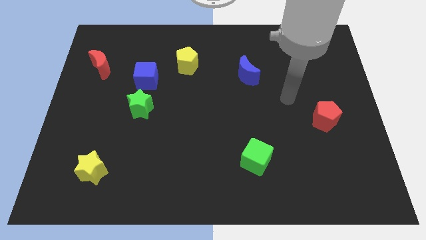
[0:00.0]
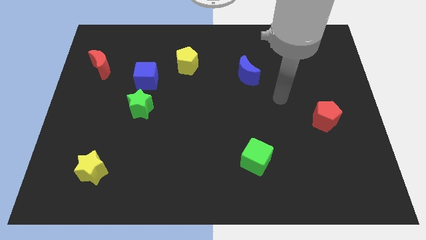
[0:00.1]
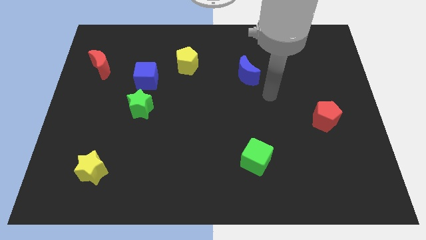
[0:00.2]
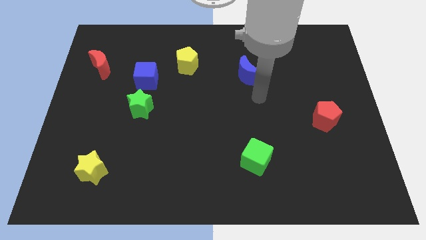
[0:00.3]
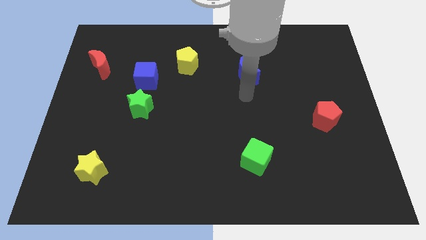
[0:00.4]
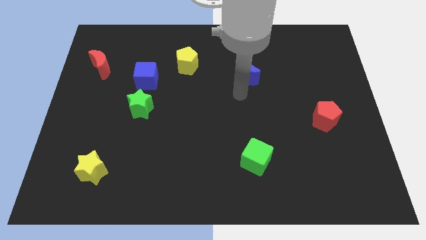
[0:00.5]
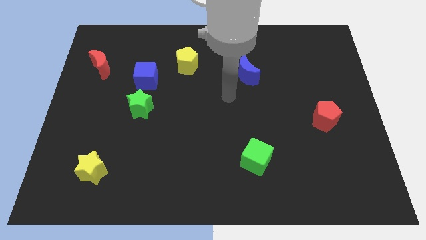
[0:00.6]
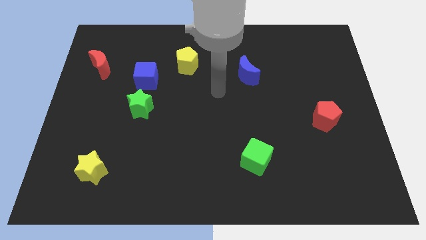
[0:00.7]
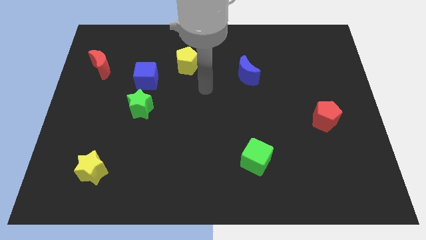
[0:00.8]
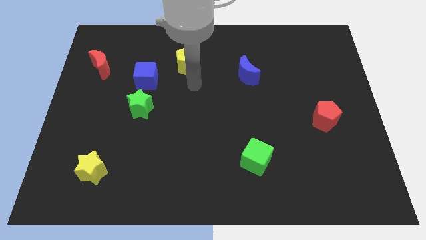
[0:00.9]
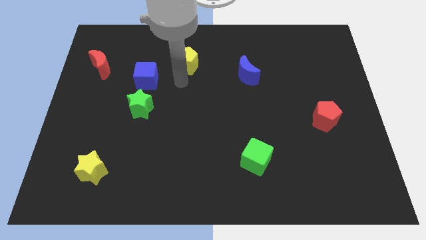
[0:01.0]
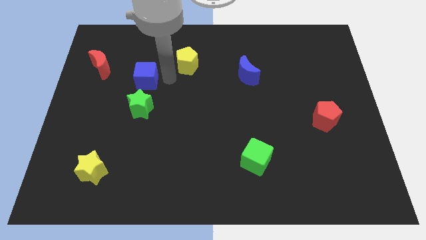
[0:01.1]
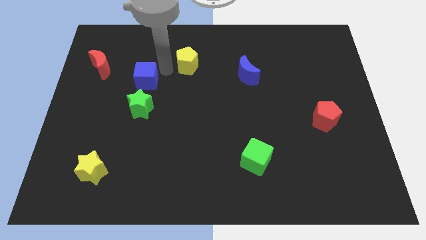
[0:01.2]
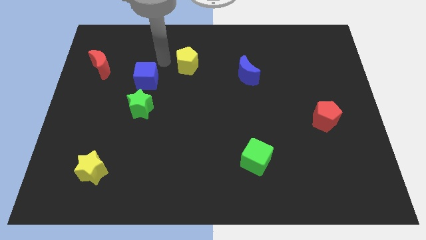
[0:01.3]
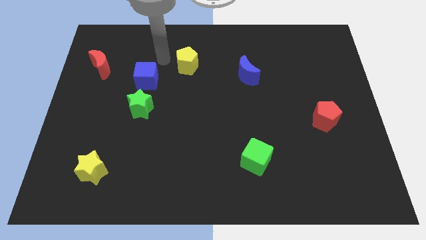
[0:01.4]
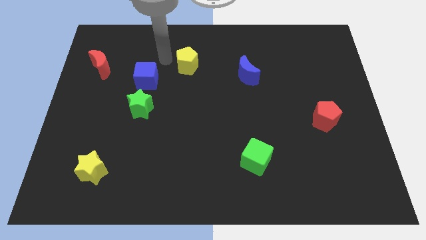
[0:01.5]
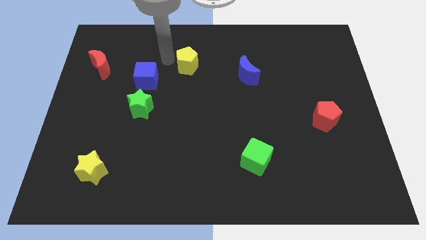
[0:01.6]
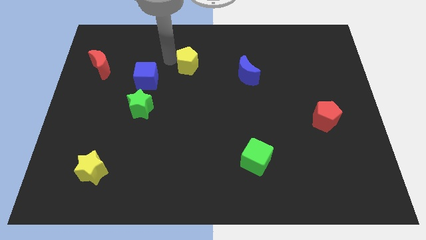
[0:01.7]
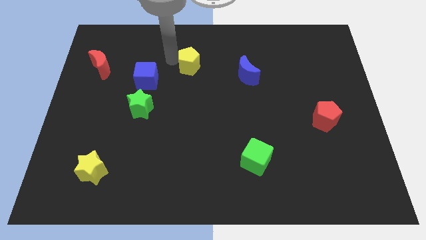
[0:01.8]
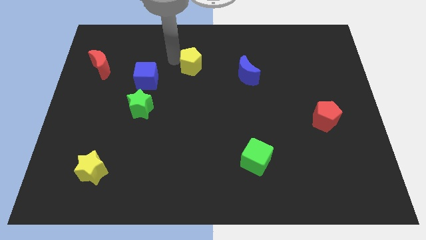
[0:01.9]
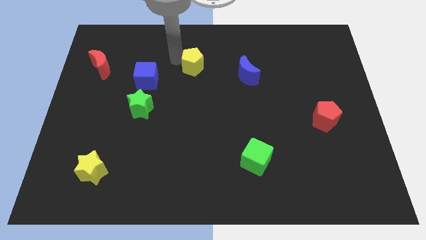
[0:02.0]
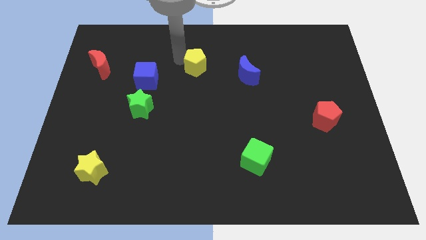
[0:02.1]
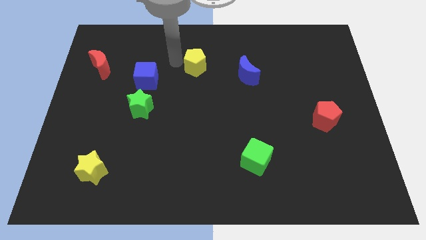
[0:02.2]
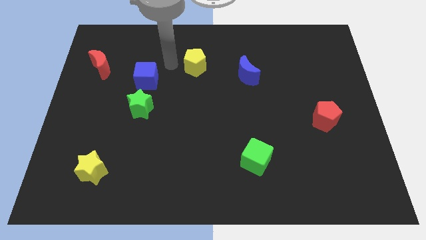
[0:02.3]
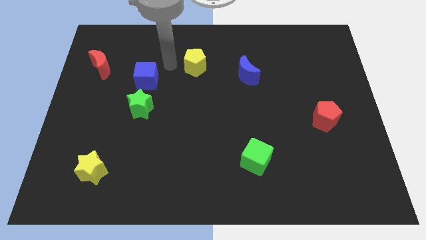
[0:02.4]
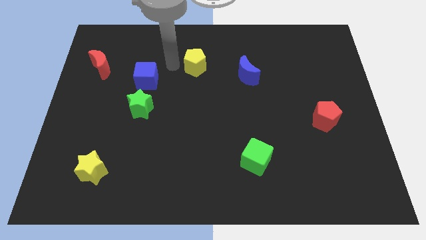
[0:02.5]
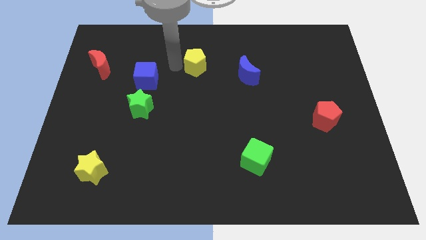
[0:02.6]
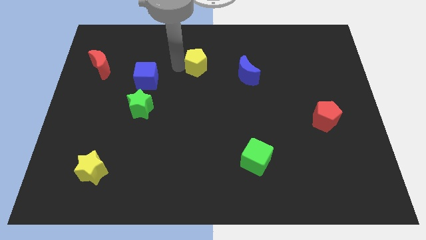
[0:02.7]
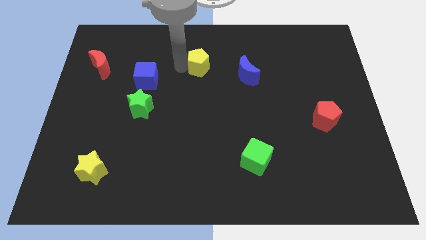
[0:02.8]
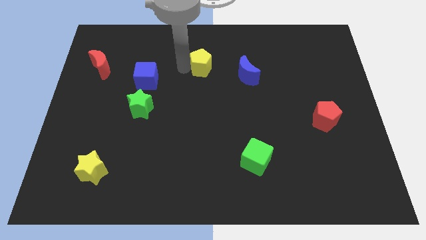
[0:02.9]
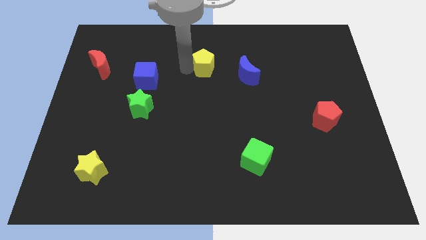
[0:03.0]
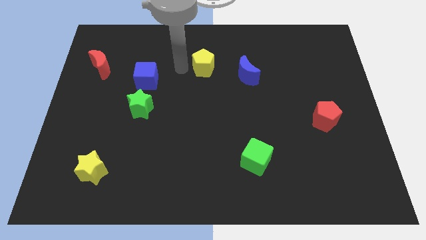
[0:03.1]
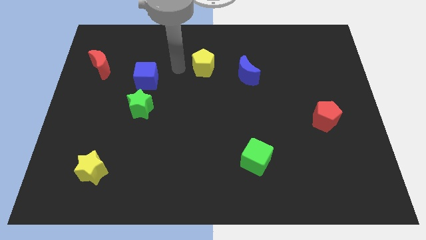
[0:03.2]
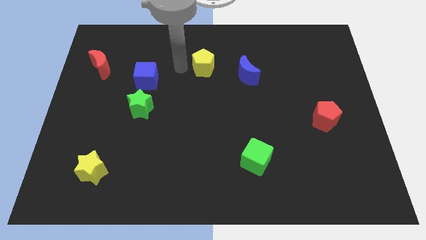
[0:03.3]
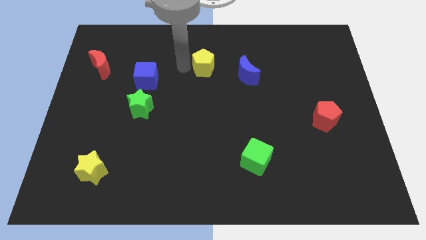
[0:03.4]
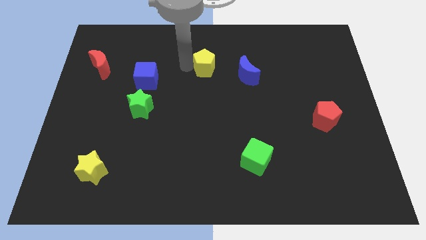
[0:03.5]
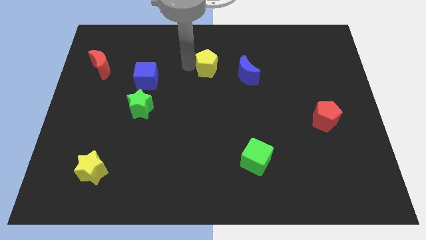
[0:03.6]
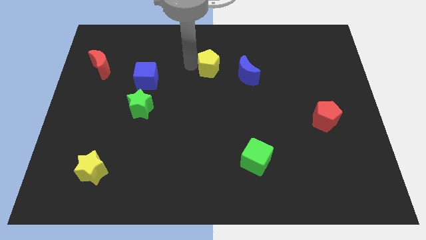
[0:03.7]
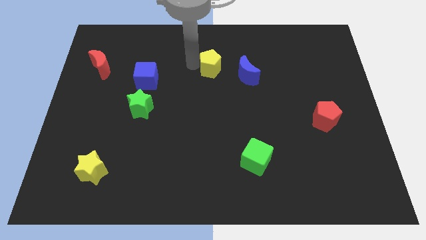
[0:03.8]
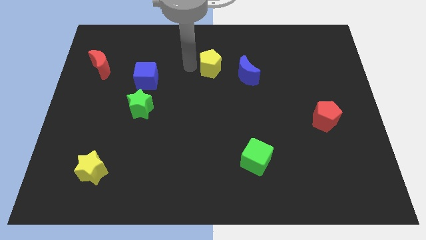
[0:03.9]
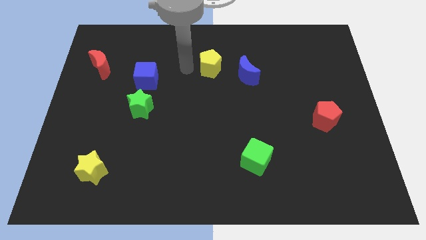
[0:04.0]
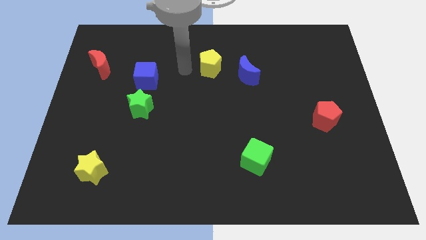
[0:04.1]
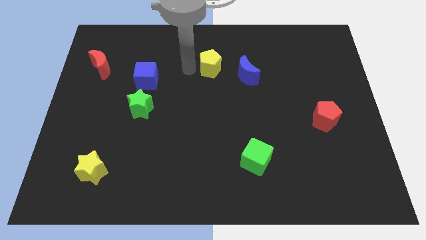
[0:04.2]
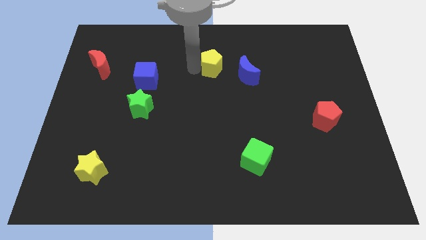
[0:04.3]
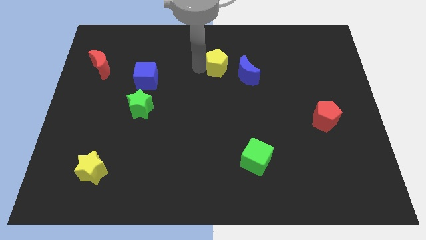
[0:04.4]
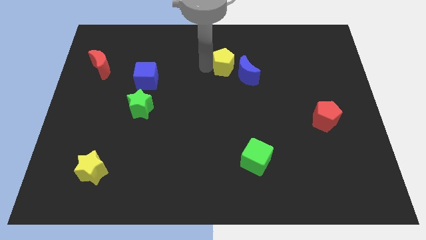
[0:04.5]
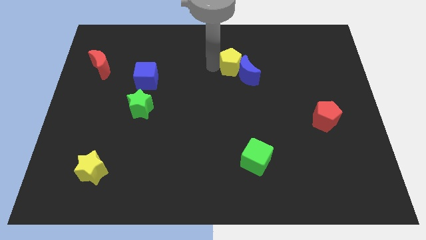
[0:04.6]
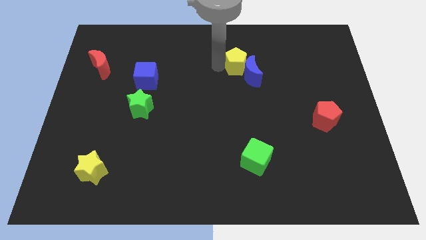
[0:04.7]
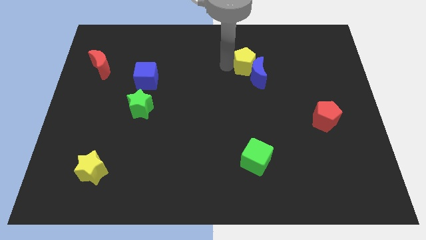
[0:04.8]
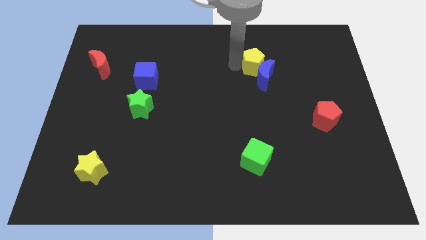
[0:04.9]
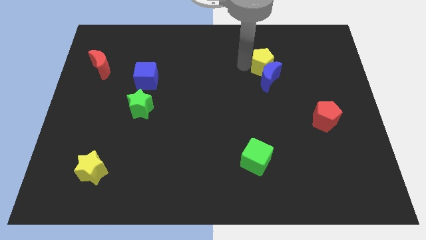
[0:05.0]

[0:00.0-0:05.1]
slide the yellow pentagon to the top right side of the blue moon

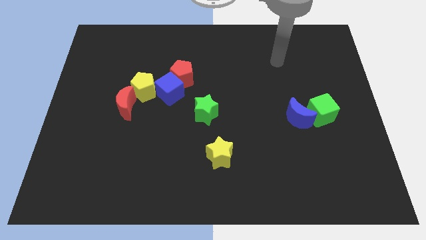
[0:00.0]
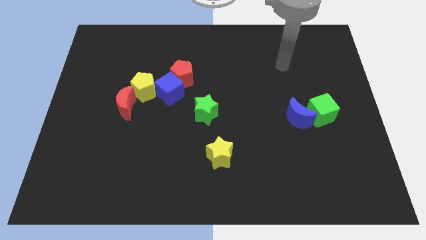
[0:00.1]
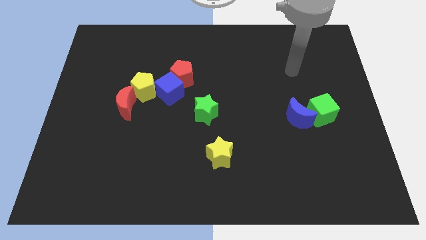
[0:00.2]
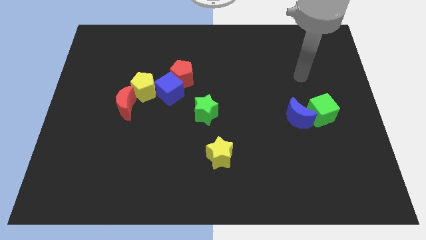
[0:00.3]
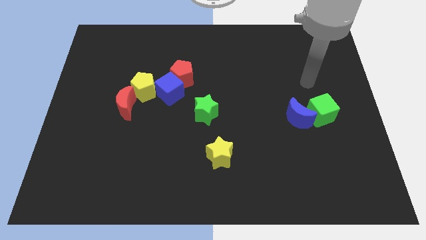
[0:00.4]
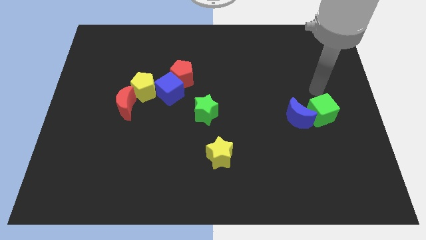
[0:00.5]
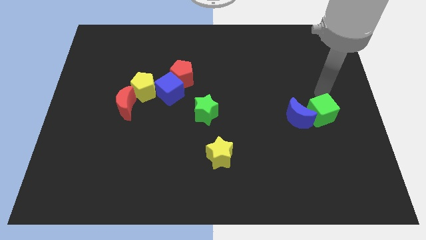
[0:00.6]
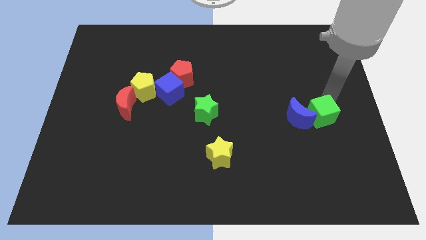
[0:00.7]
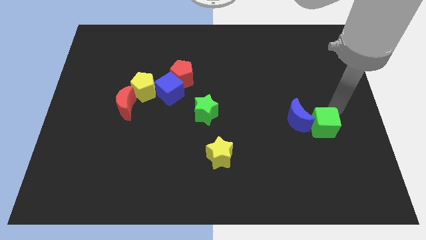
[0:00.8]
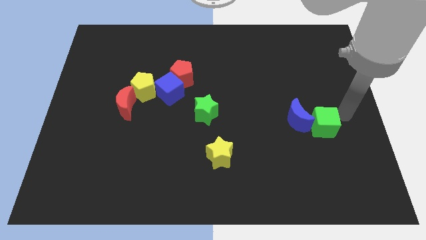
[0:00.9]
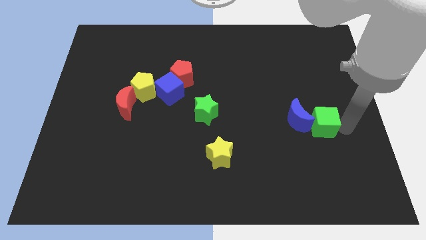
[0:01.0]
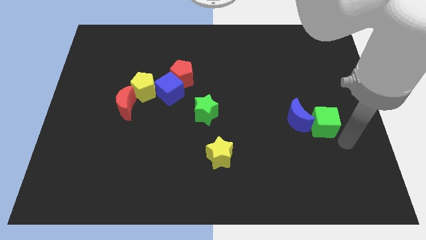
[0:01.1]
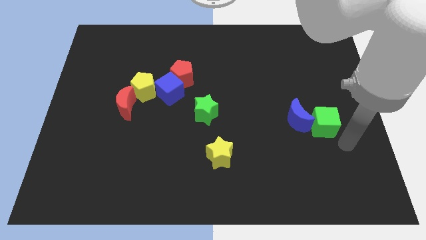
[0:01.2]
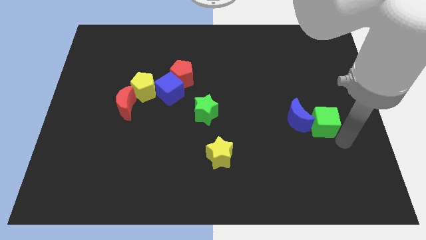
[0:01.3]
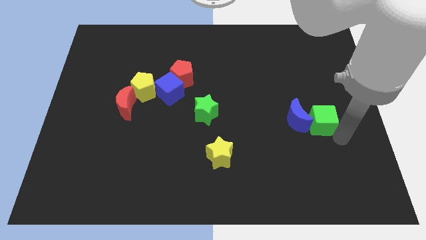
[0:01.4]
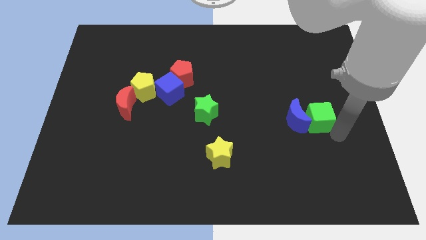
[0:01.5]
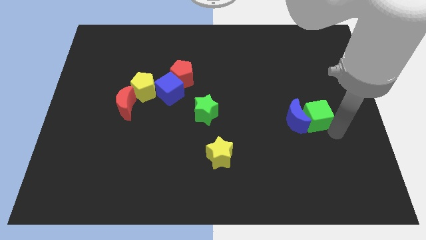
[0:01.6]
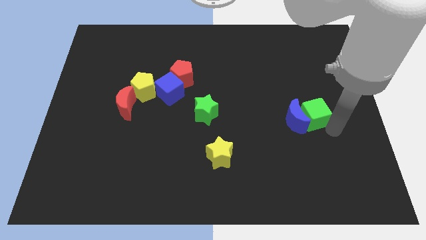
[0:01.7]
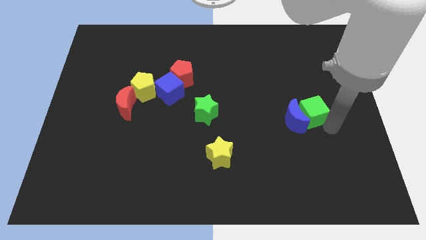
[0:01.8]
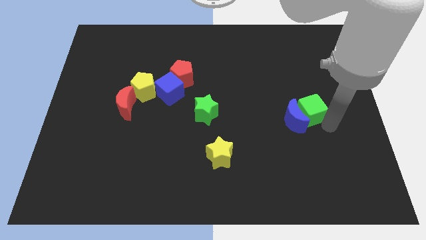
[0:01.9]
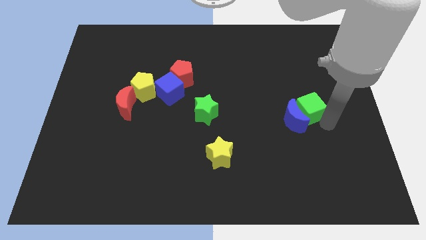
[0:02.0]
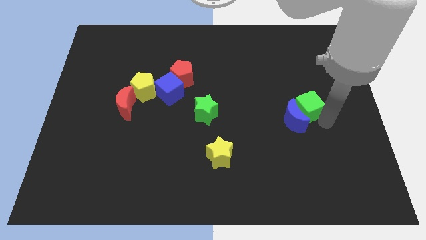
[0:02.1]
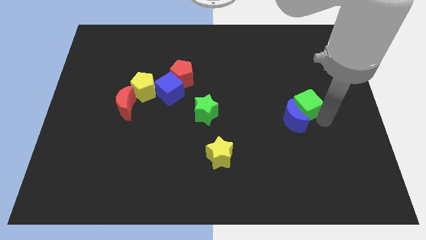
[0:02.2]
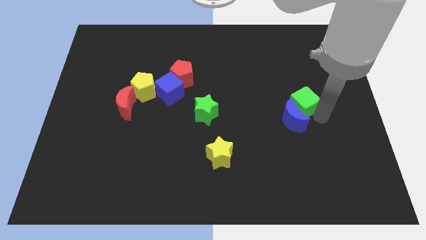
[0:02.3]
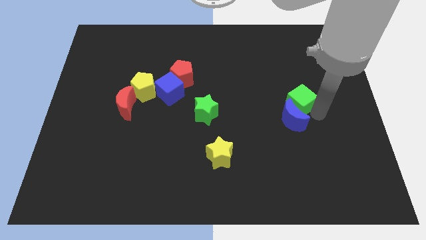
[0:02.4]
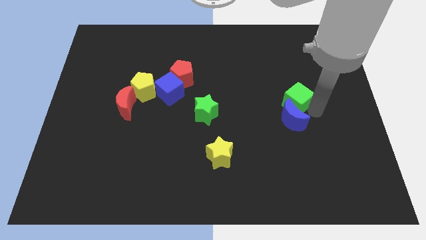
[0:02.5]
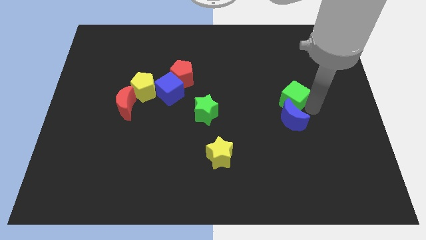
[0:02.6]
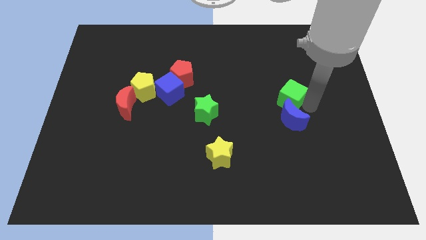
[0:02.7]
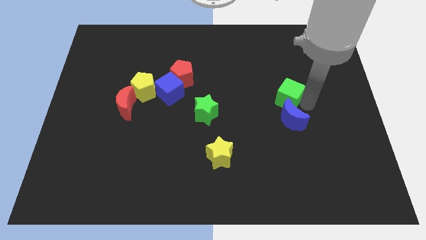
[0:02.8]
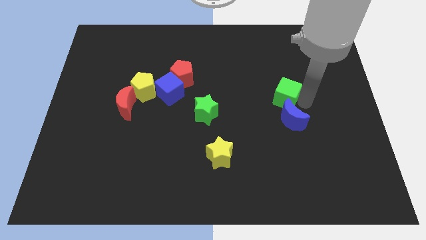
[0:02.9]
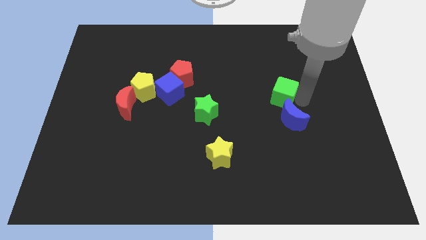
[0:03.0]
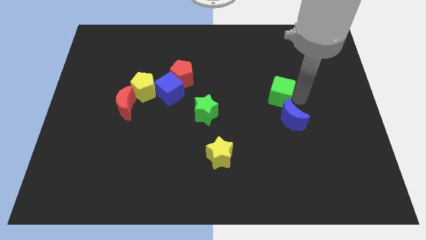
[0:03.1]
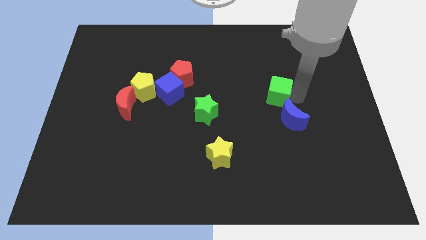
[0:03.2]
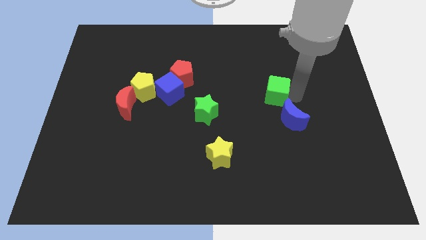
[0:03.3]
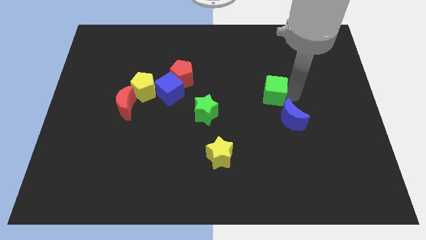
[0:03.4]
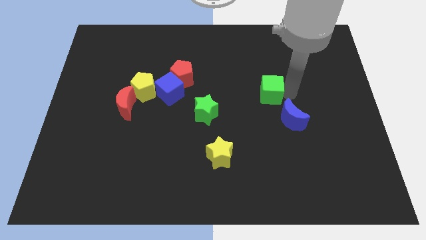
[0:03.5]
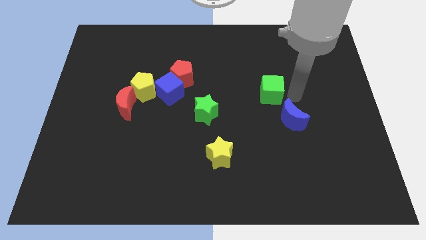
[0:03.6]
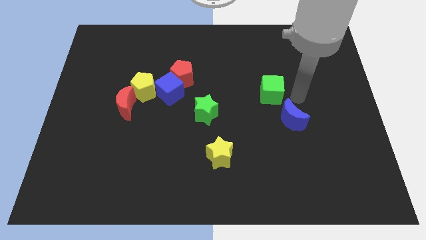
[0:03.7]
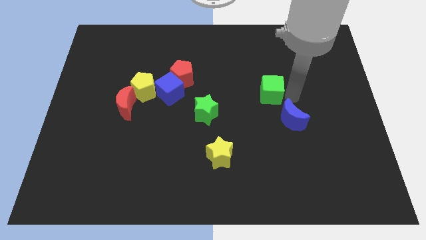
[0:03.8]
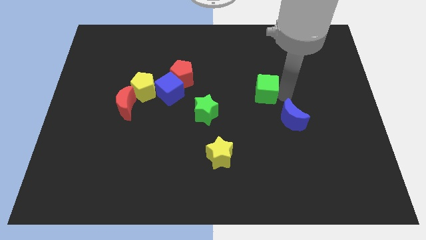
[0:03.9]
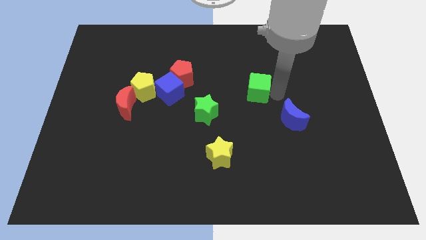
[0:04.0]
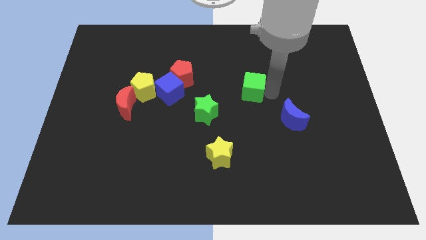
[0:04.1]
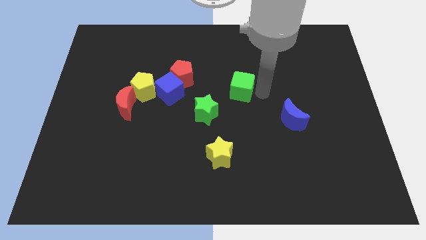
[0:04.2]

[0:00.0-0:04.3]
slide the green cube to the right of the red pentagon
